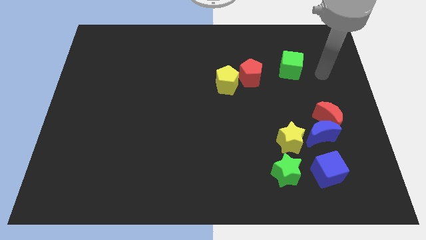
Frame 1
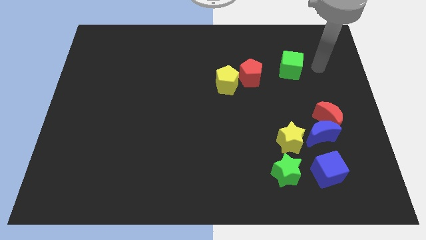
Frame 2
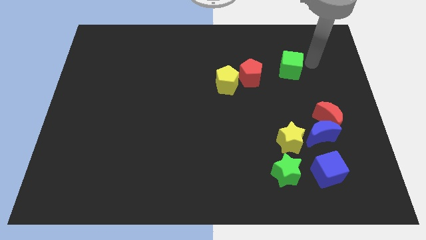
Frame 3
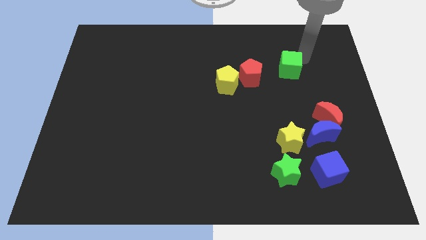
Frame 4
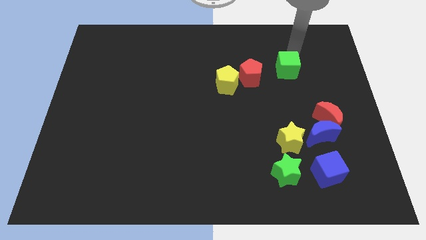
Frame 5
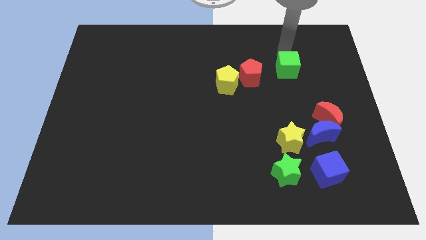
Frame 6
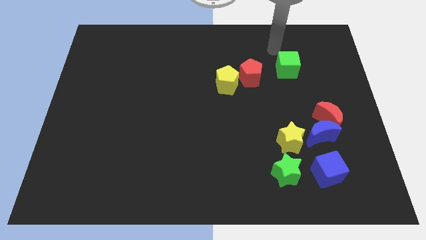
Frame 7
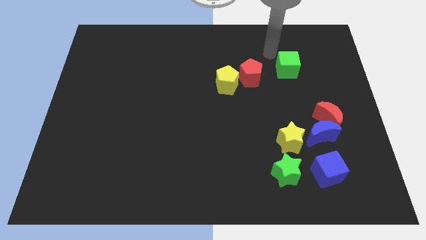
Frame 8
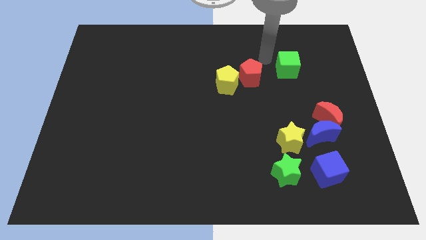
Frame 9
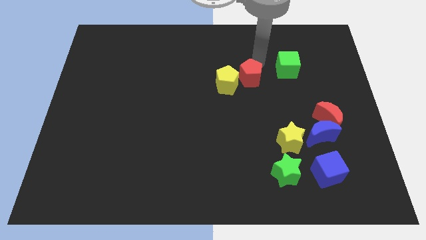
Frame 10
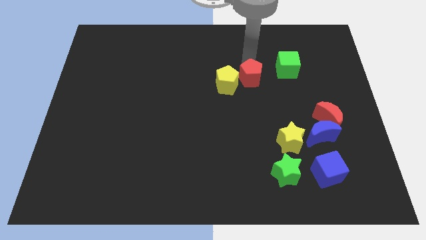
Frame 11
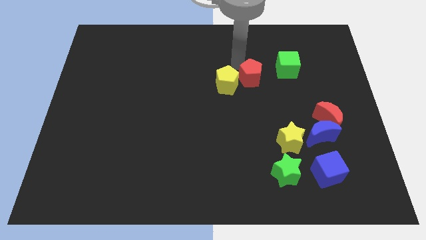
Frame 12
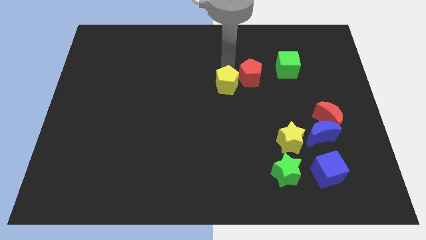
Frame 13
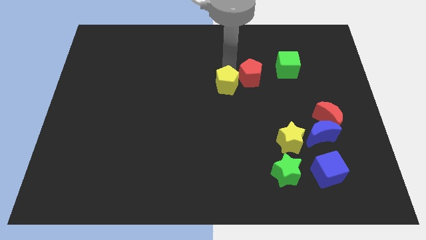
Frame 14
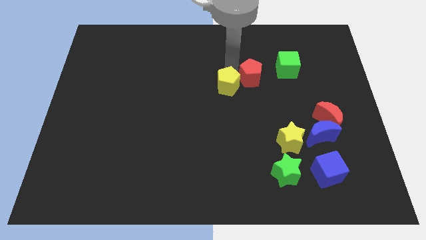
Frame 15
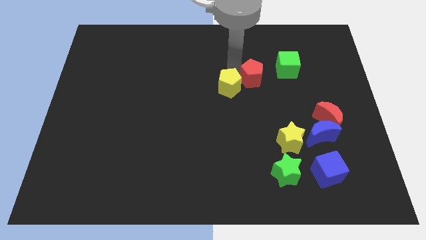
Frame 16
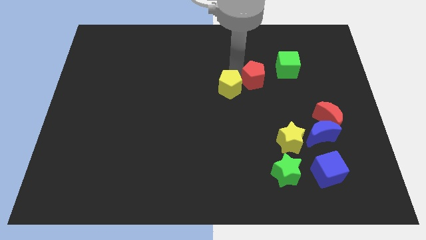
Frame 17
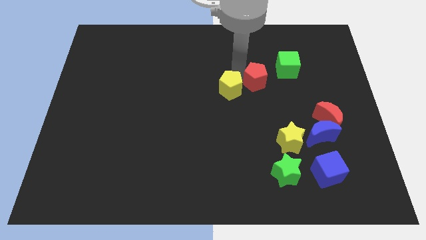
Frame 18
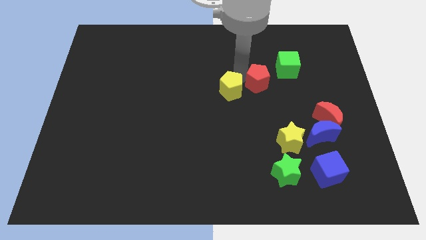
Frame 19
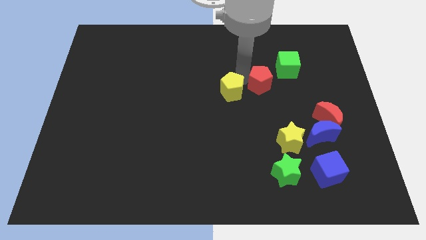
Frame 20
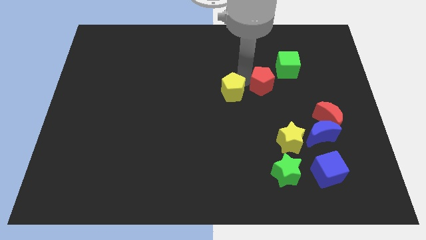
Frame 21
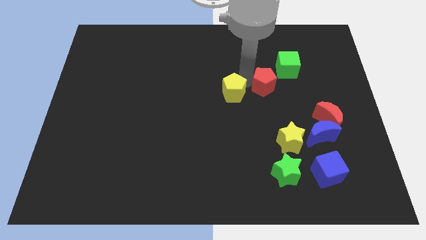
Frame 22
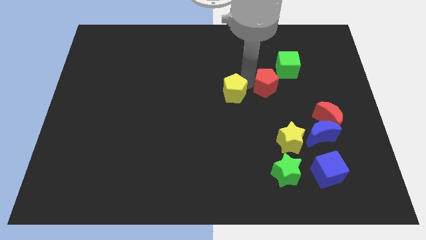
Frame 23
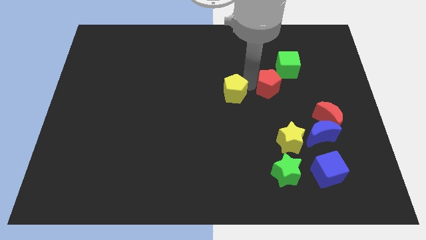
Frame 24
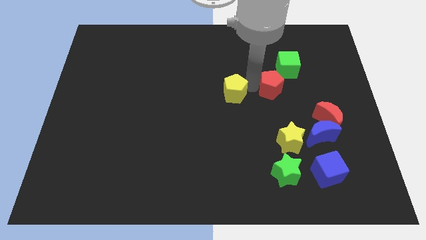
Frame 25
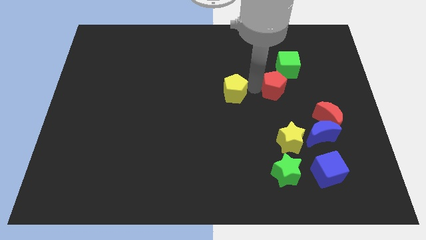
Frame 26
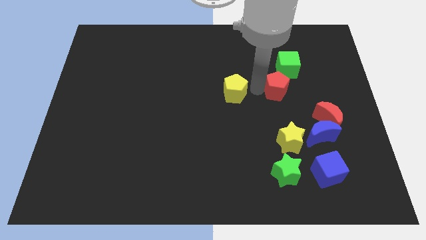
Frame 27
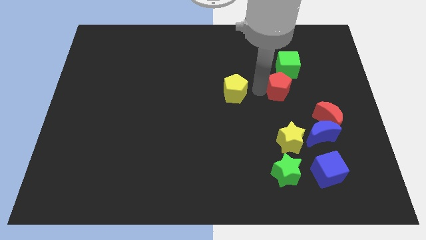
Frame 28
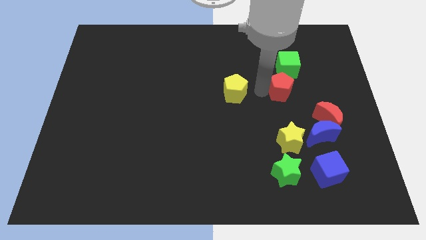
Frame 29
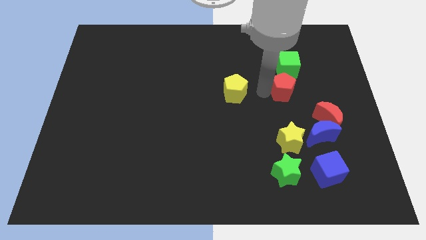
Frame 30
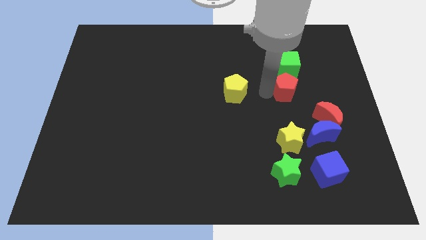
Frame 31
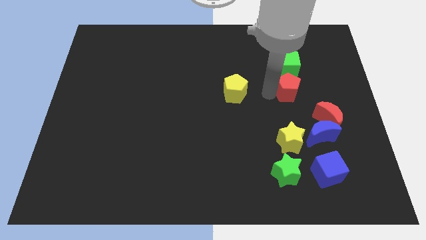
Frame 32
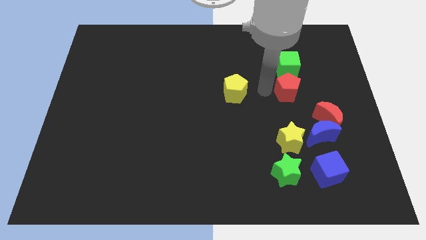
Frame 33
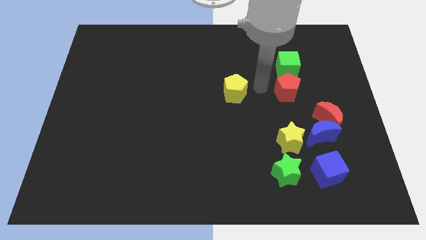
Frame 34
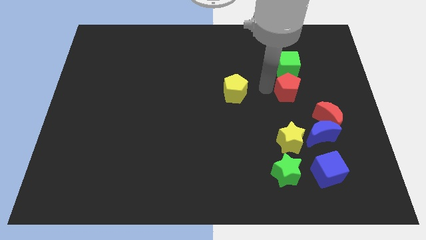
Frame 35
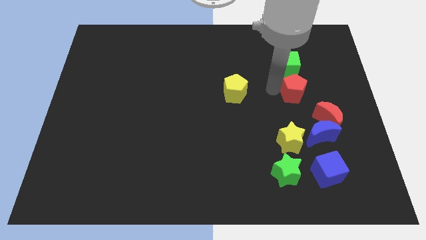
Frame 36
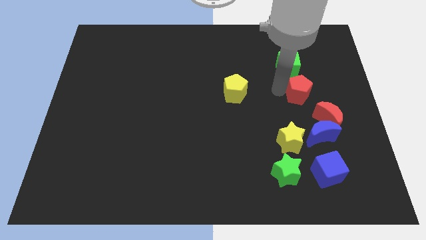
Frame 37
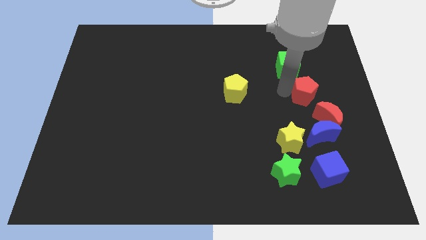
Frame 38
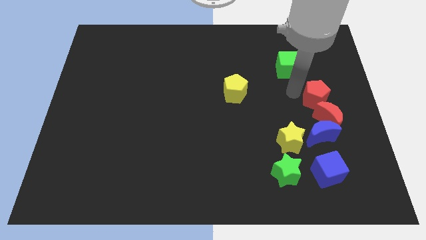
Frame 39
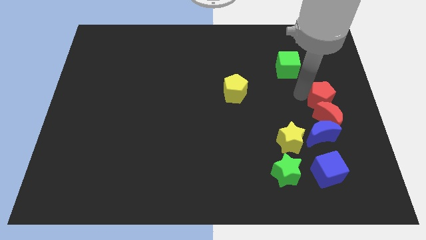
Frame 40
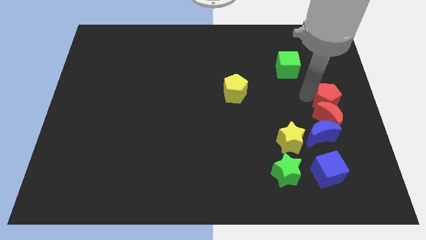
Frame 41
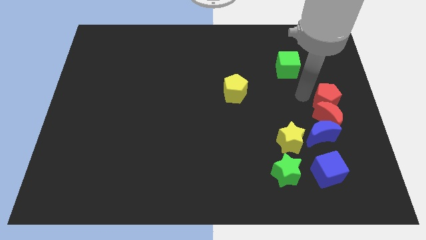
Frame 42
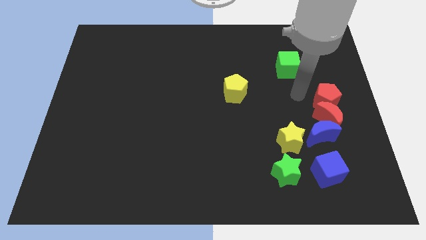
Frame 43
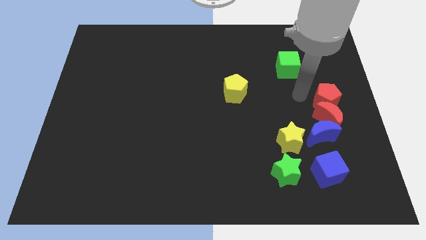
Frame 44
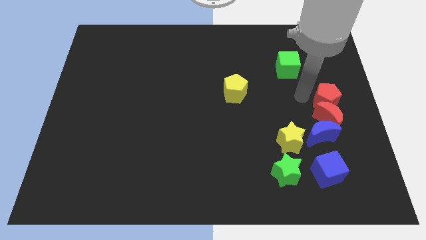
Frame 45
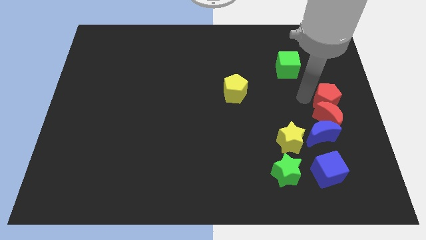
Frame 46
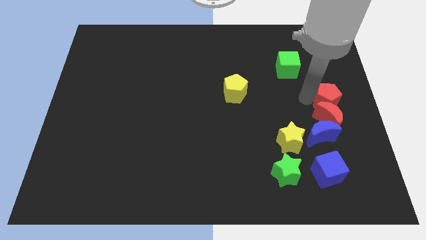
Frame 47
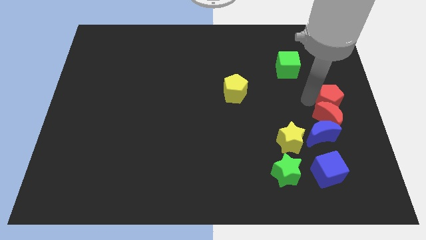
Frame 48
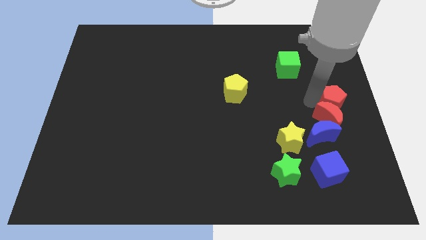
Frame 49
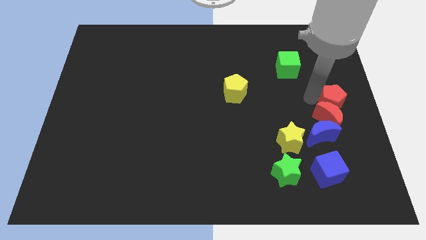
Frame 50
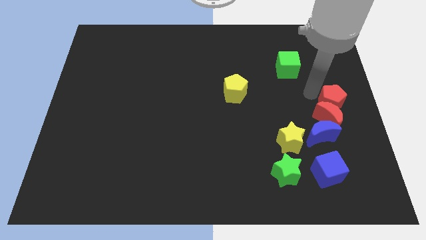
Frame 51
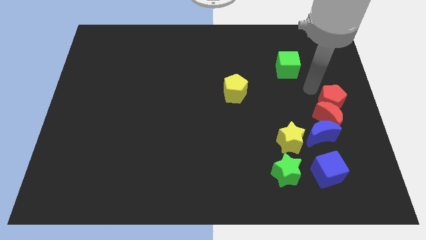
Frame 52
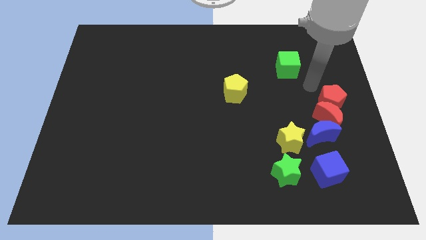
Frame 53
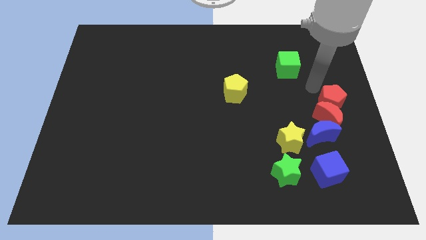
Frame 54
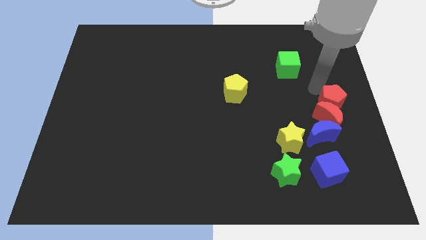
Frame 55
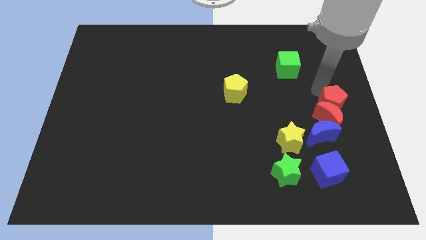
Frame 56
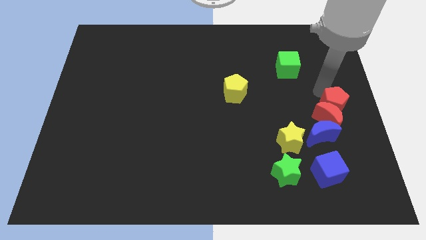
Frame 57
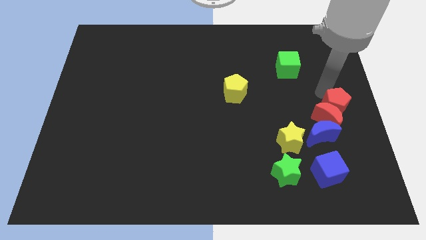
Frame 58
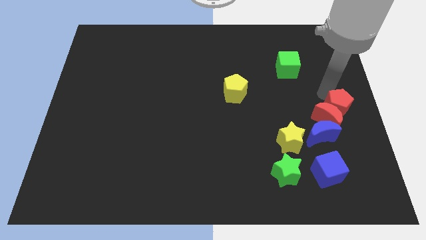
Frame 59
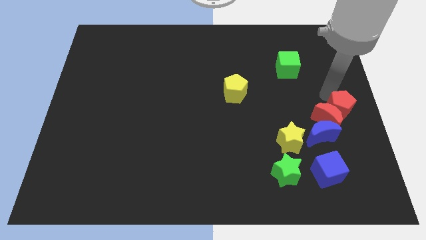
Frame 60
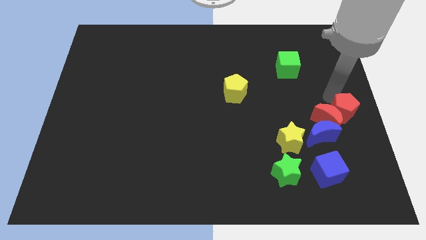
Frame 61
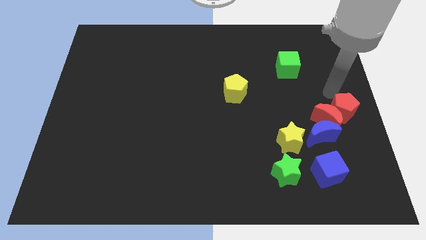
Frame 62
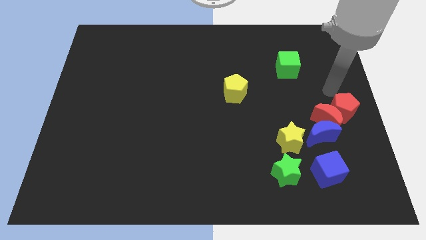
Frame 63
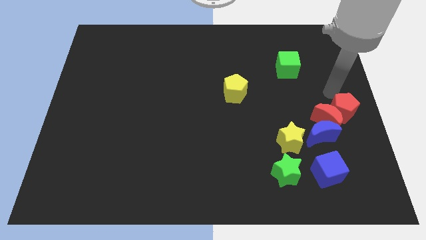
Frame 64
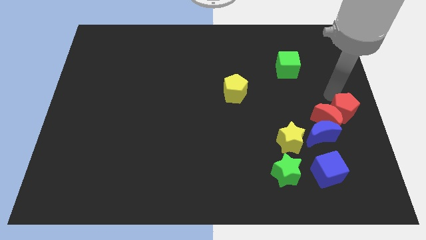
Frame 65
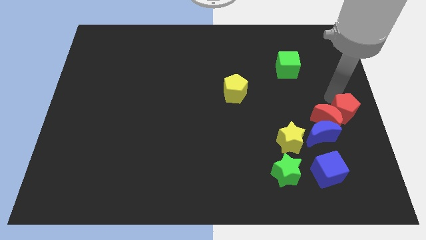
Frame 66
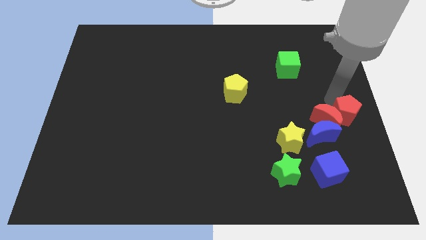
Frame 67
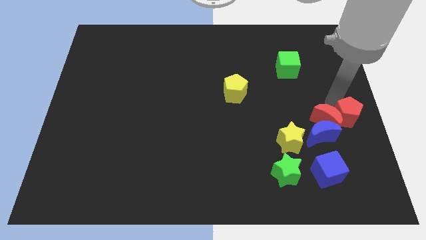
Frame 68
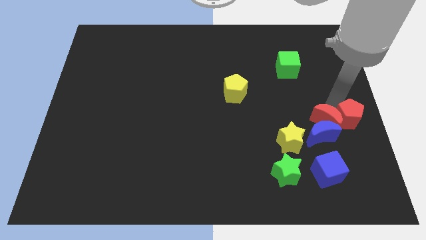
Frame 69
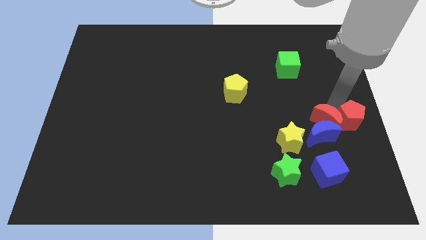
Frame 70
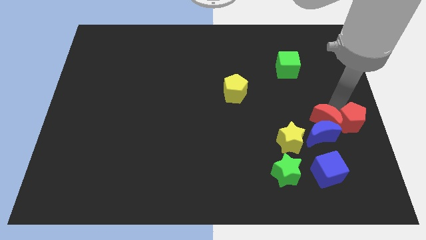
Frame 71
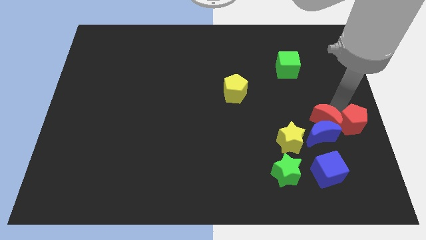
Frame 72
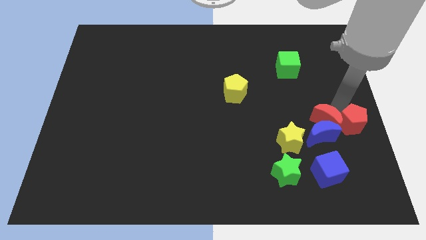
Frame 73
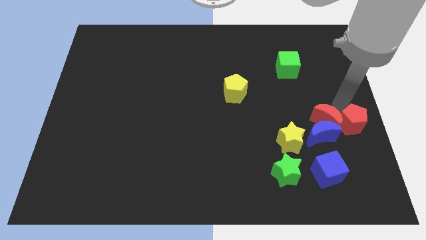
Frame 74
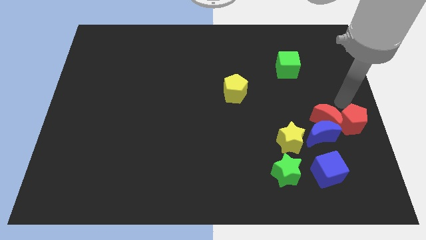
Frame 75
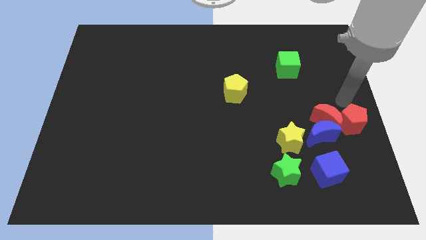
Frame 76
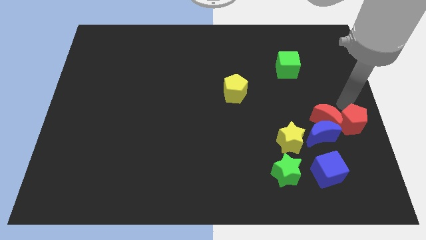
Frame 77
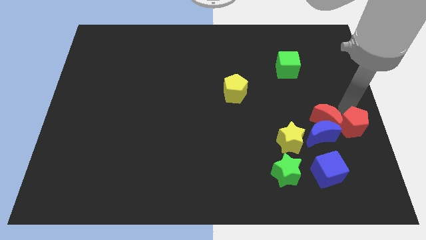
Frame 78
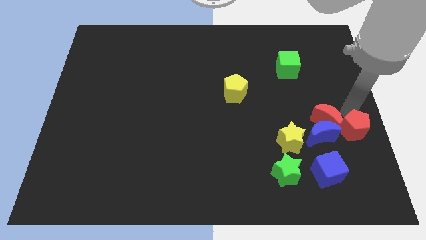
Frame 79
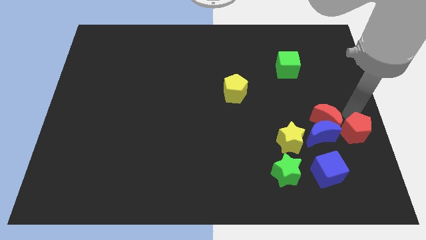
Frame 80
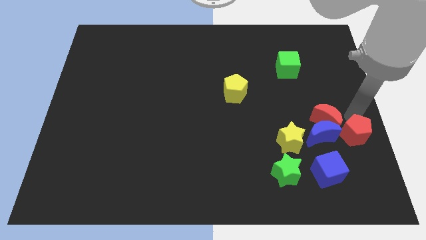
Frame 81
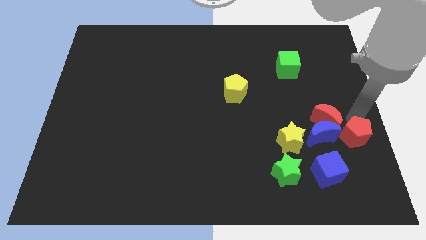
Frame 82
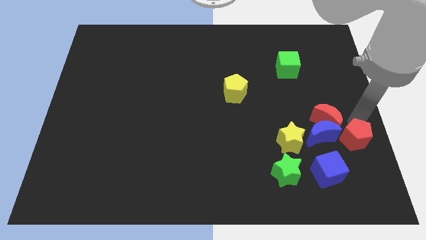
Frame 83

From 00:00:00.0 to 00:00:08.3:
push the red pentagon diagonally down and to the right of the blue moon
